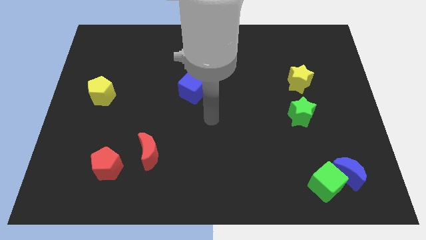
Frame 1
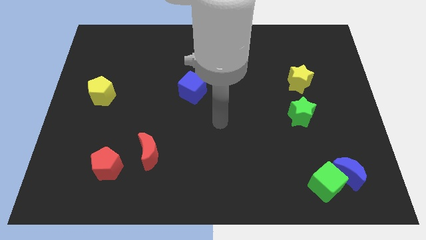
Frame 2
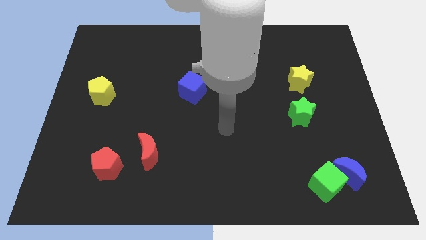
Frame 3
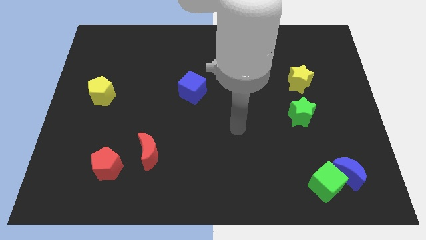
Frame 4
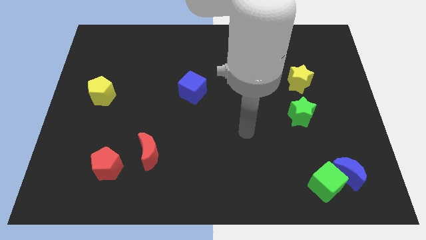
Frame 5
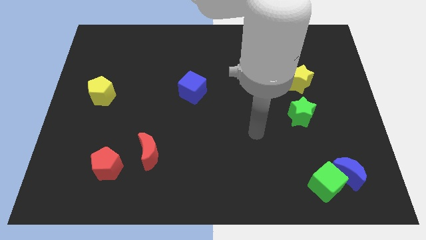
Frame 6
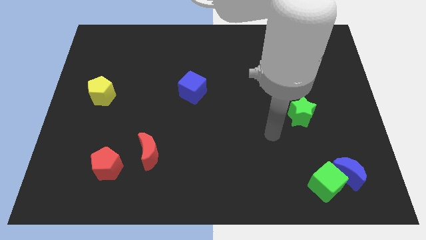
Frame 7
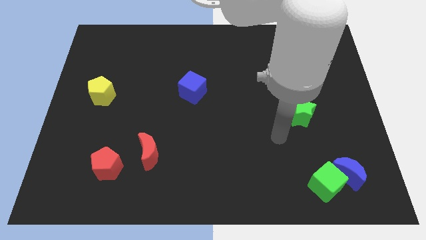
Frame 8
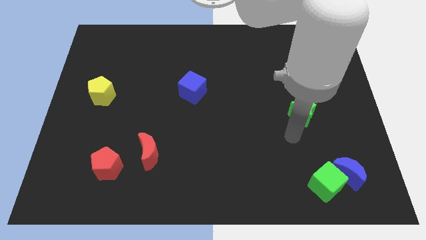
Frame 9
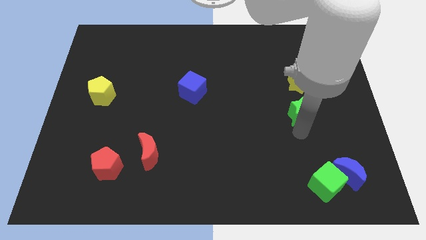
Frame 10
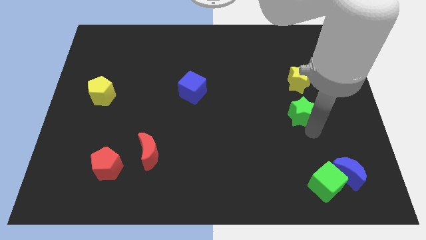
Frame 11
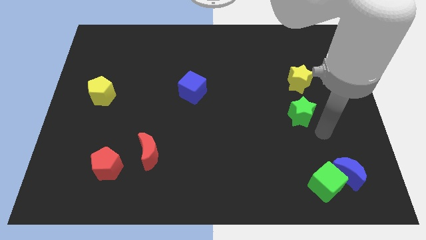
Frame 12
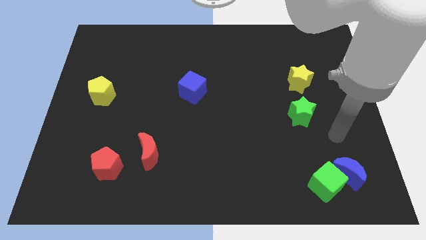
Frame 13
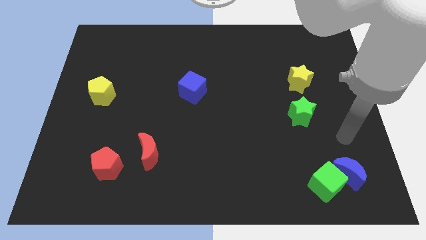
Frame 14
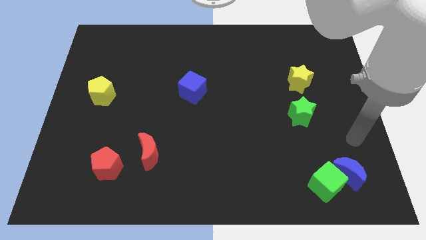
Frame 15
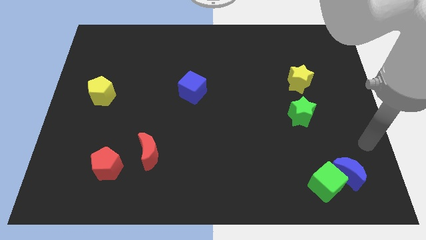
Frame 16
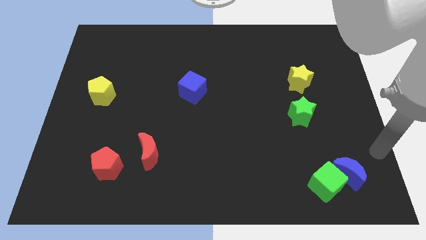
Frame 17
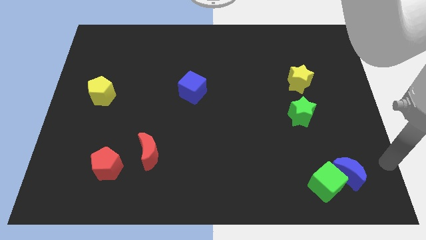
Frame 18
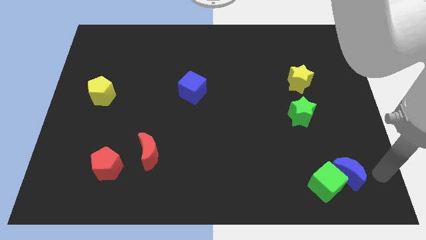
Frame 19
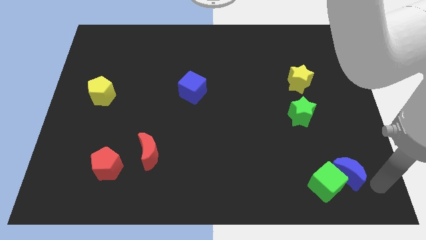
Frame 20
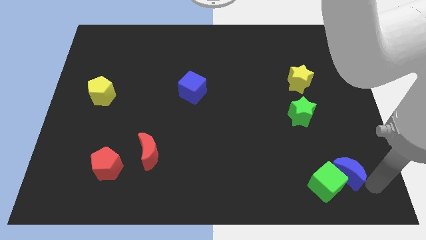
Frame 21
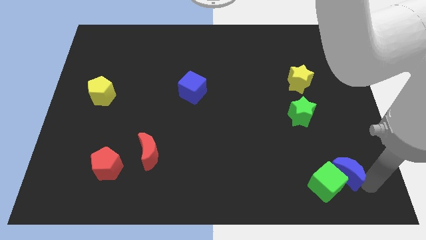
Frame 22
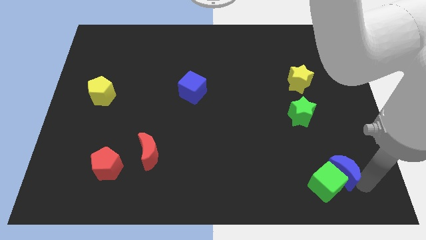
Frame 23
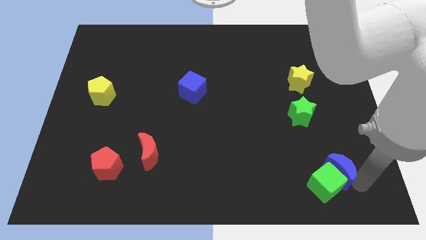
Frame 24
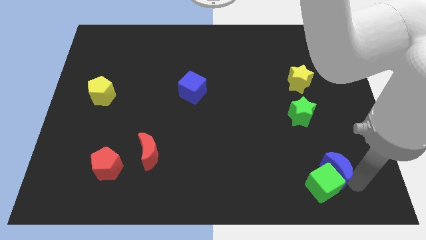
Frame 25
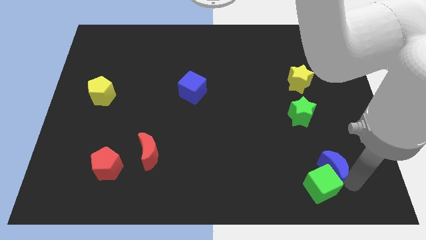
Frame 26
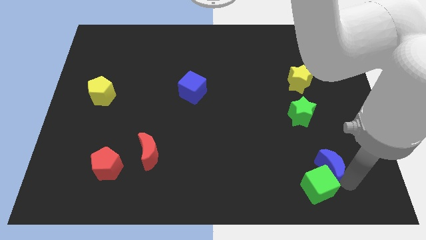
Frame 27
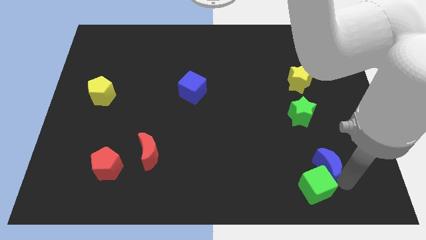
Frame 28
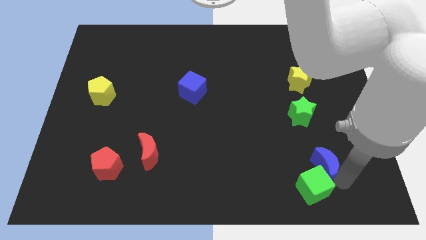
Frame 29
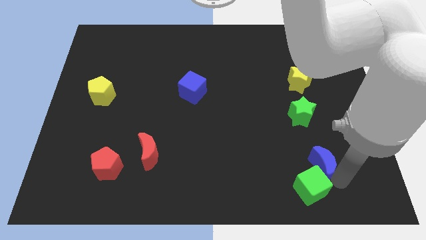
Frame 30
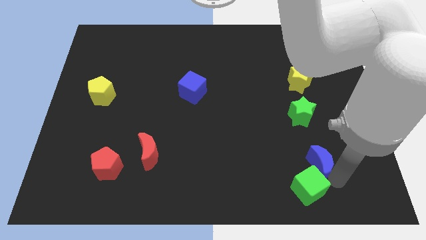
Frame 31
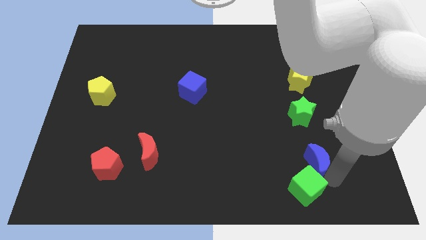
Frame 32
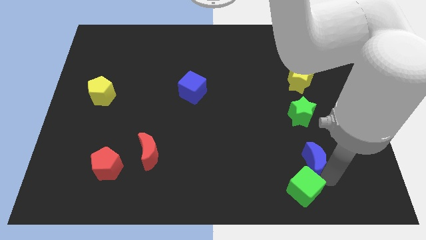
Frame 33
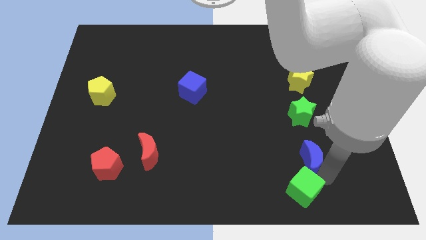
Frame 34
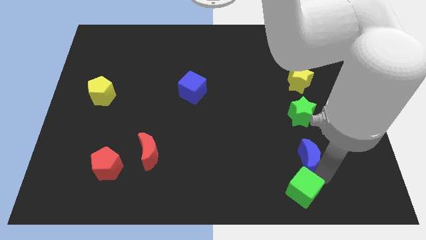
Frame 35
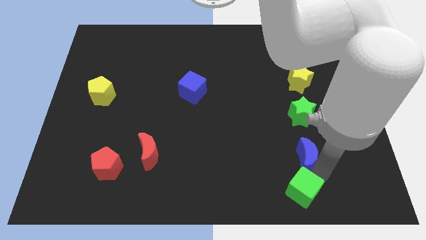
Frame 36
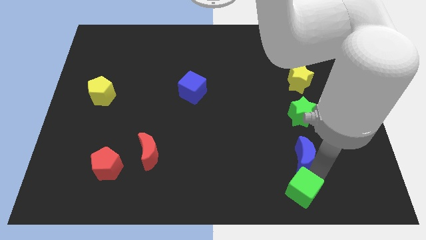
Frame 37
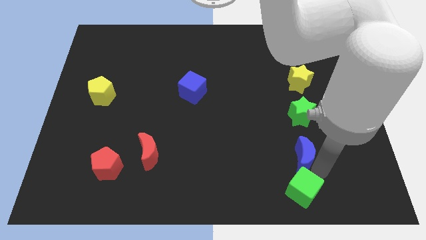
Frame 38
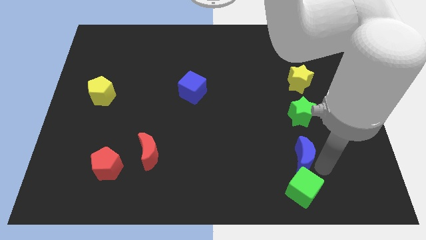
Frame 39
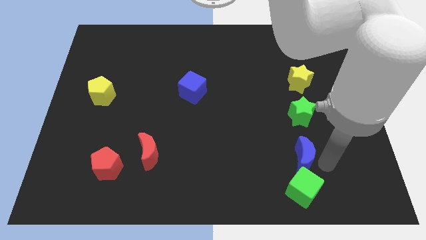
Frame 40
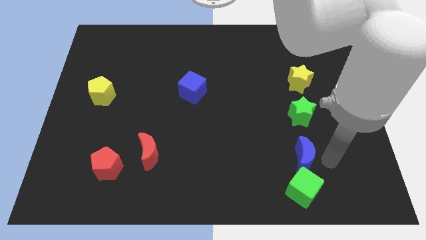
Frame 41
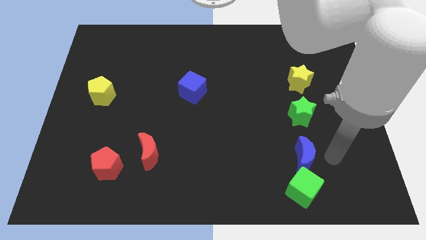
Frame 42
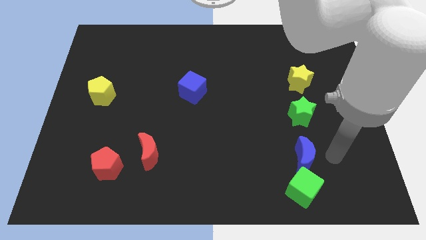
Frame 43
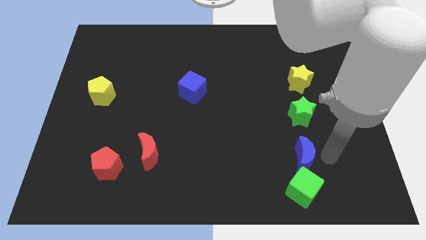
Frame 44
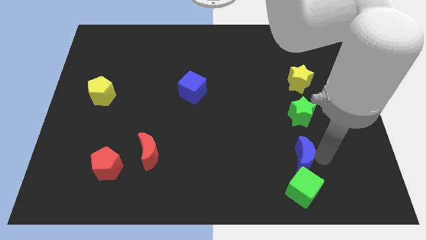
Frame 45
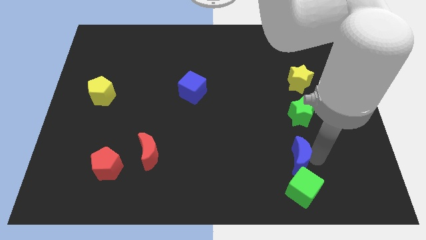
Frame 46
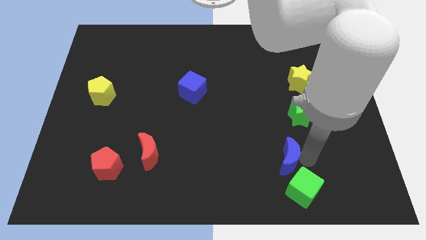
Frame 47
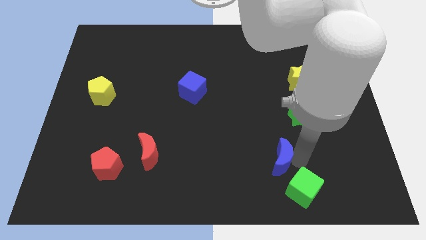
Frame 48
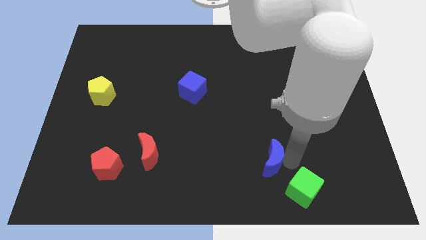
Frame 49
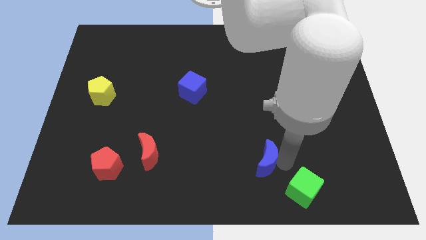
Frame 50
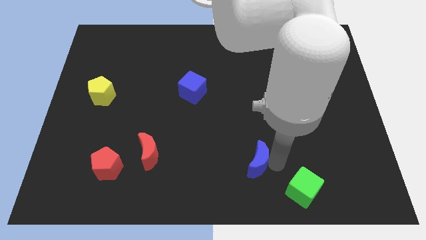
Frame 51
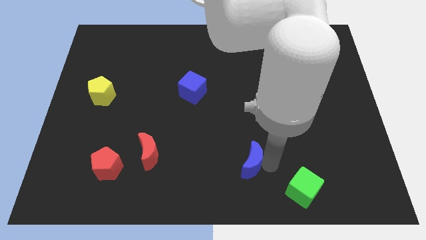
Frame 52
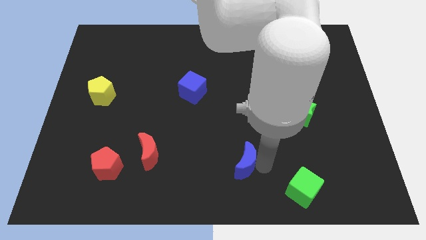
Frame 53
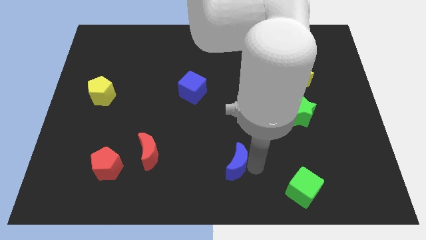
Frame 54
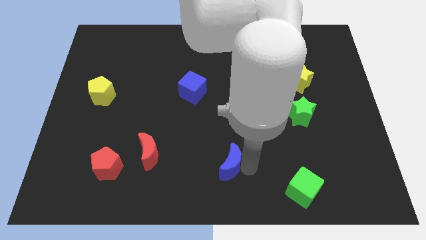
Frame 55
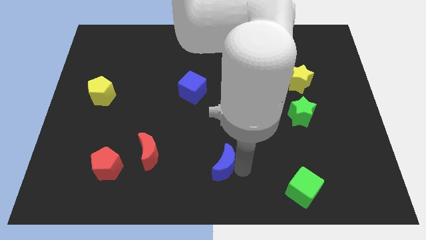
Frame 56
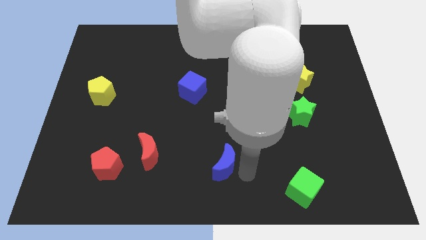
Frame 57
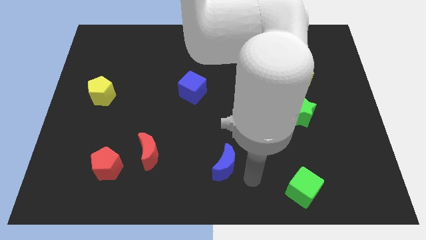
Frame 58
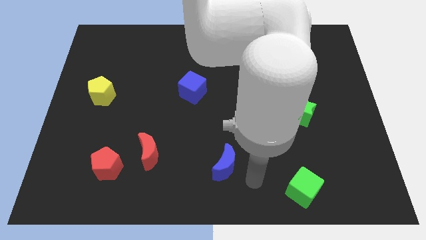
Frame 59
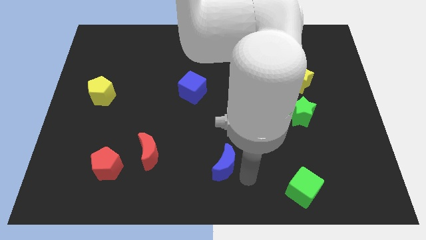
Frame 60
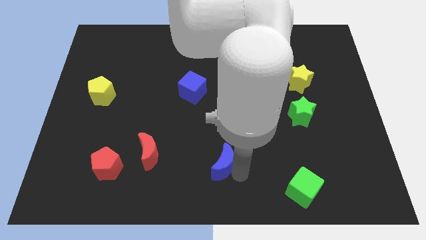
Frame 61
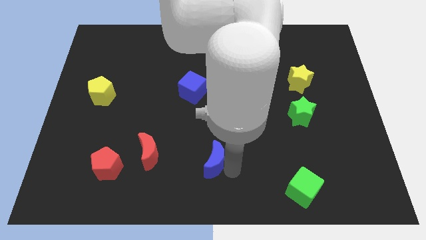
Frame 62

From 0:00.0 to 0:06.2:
push the blue moon to the right side of the red moon

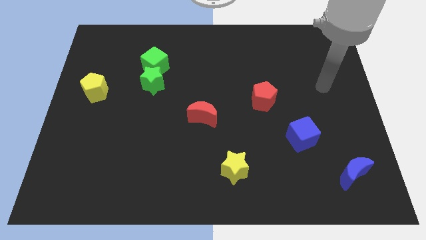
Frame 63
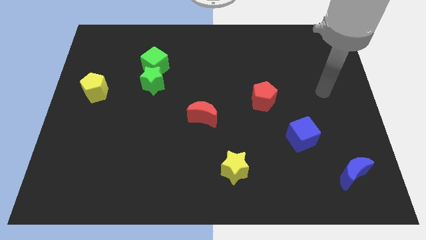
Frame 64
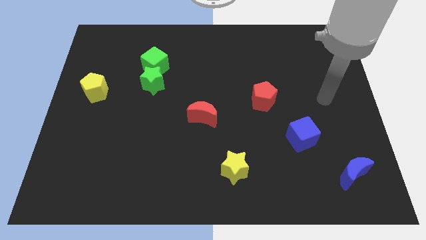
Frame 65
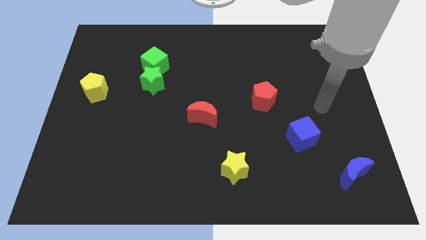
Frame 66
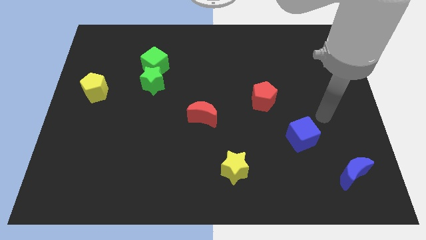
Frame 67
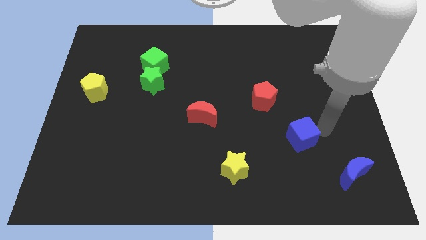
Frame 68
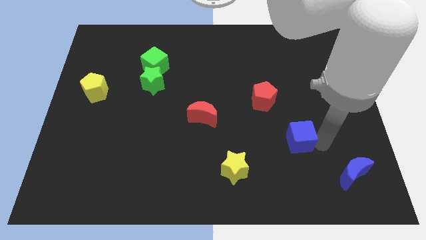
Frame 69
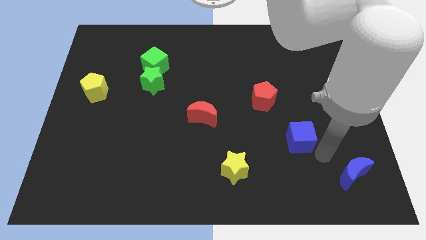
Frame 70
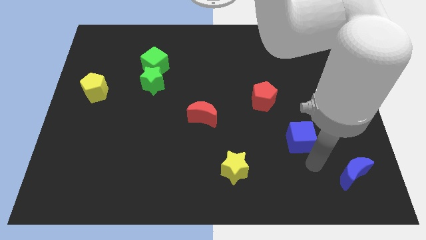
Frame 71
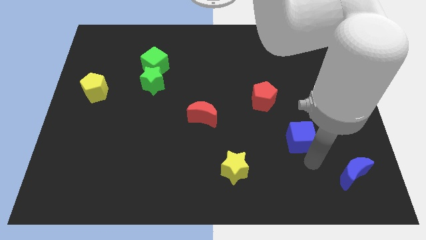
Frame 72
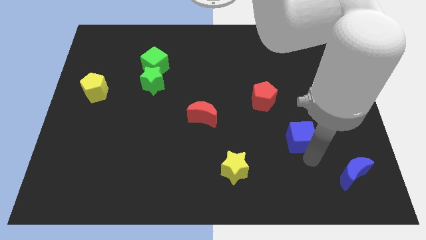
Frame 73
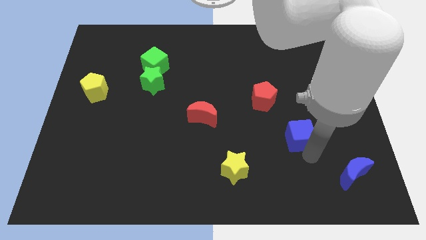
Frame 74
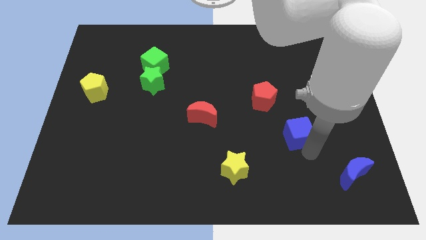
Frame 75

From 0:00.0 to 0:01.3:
move the blue cube to the bottom right of the red pentagon

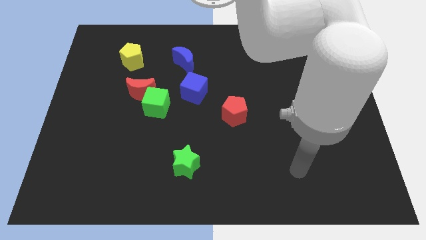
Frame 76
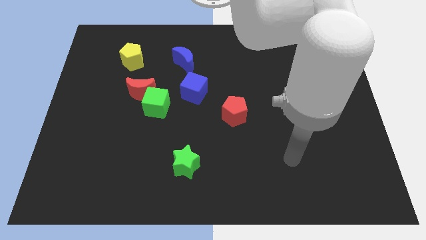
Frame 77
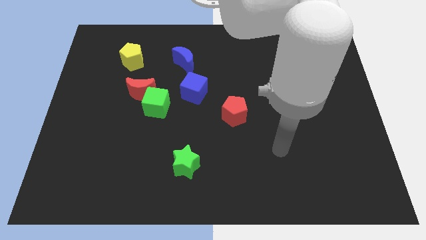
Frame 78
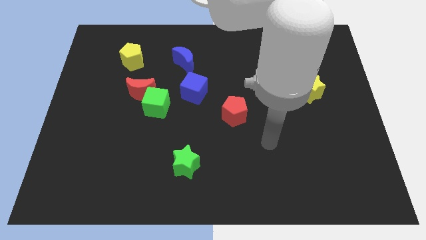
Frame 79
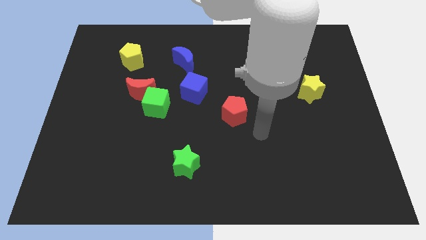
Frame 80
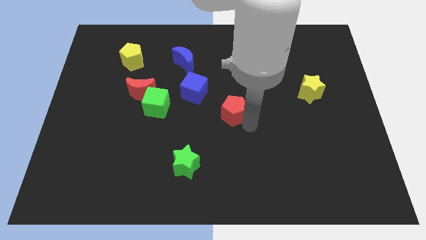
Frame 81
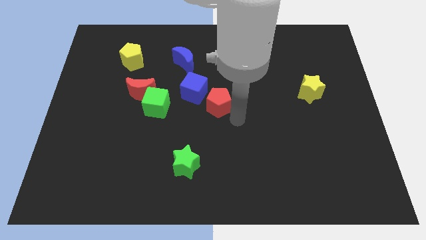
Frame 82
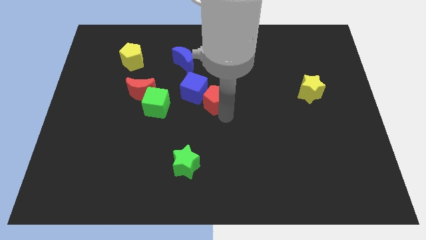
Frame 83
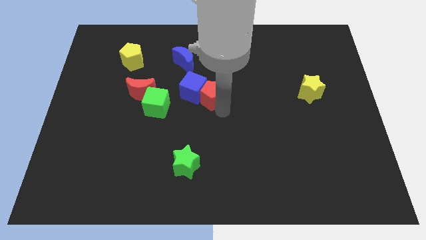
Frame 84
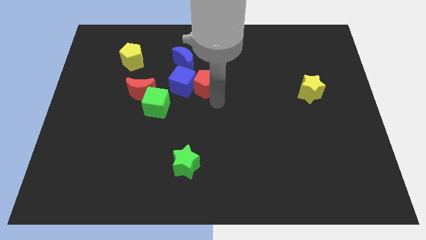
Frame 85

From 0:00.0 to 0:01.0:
slide the blue cube to the bottom left of the blue moon
